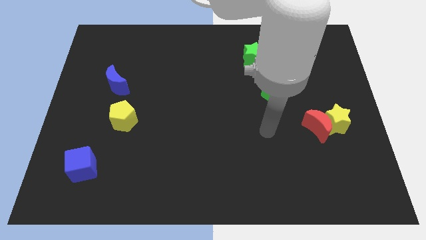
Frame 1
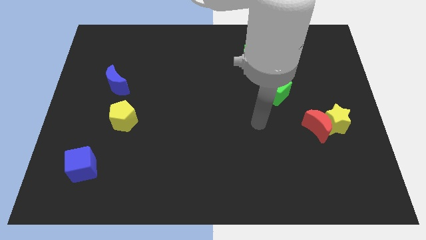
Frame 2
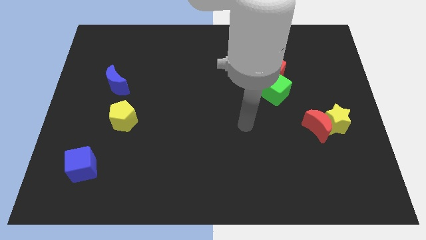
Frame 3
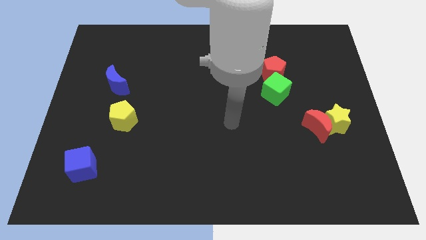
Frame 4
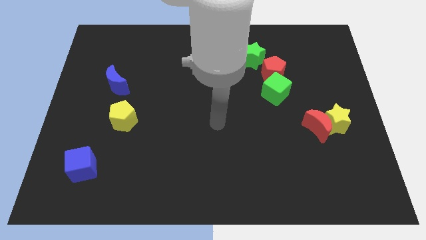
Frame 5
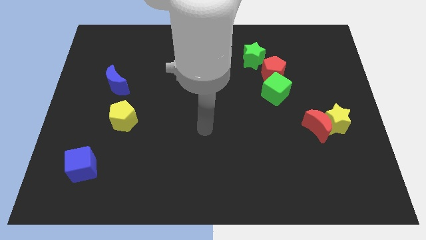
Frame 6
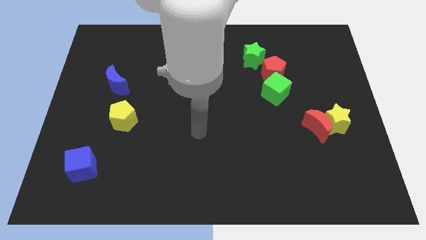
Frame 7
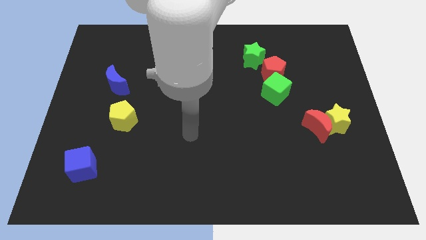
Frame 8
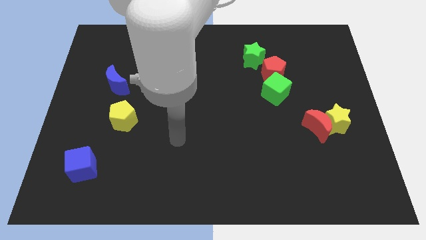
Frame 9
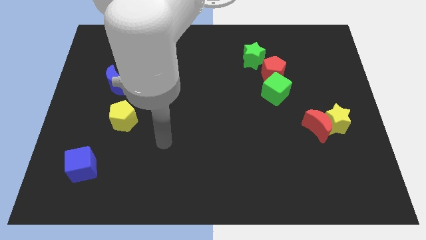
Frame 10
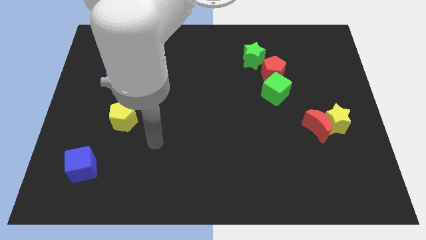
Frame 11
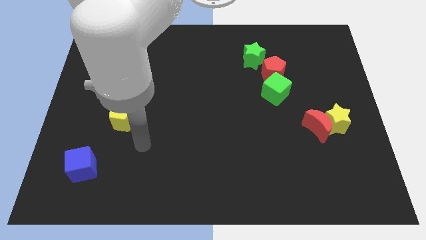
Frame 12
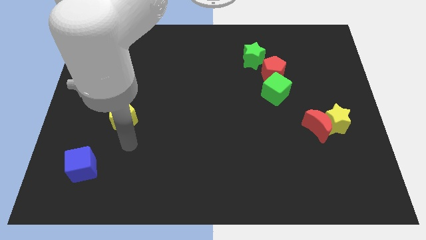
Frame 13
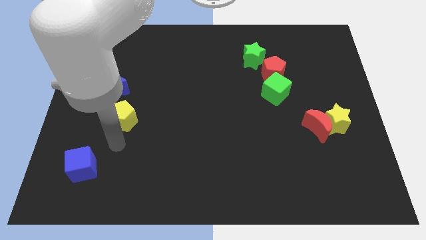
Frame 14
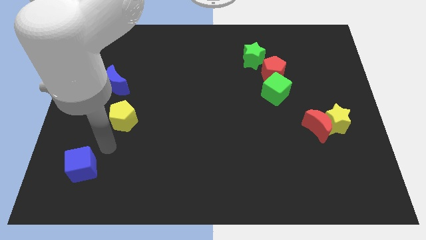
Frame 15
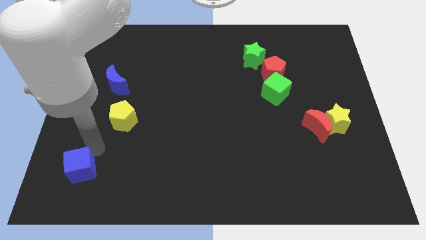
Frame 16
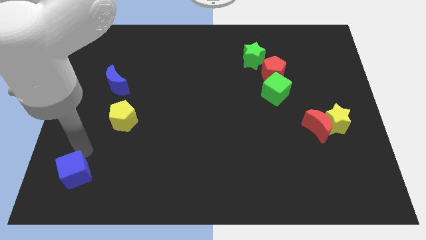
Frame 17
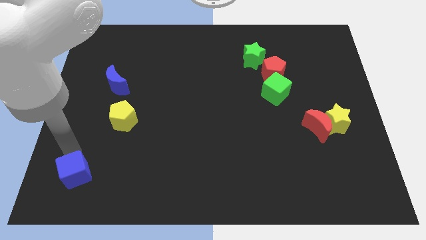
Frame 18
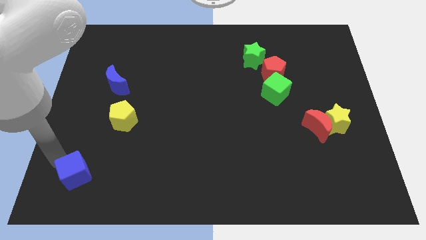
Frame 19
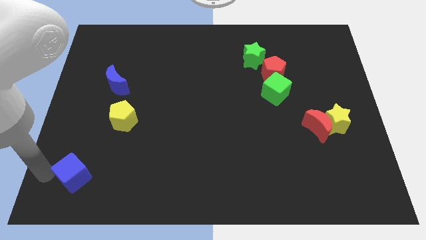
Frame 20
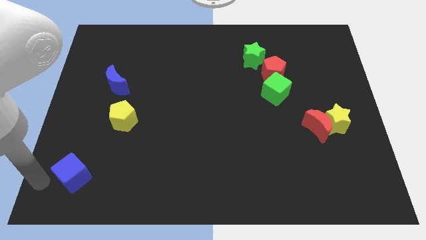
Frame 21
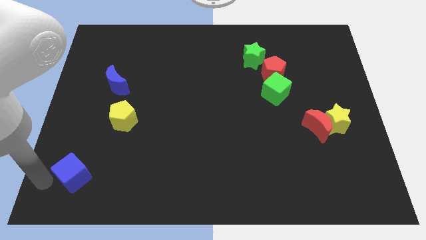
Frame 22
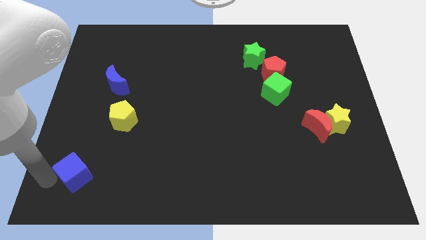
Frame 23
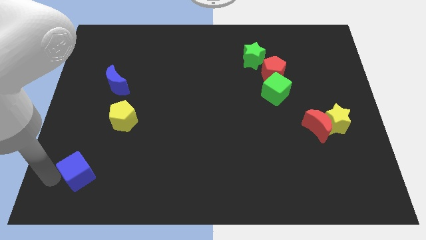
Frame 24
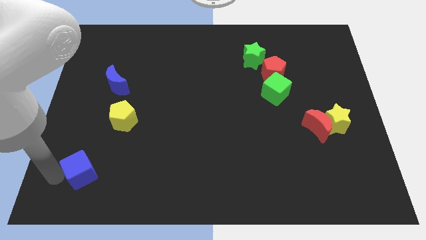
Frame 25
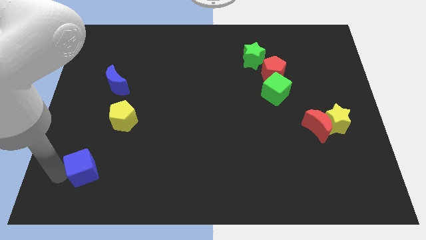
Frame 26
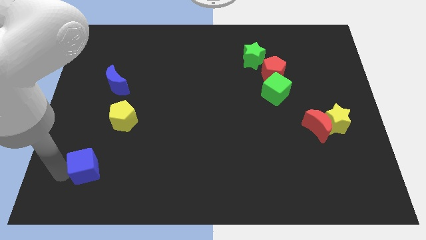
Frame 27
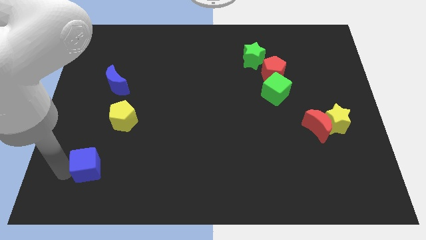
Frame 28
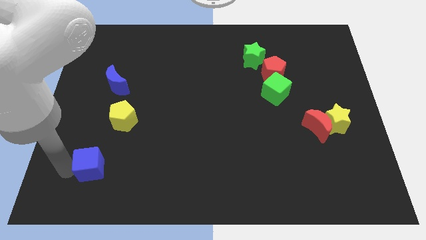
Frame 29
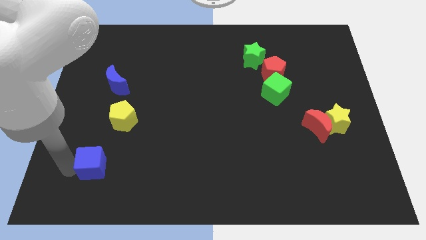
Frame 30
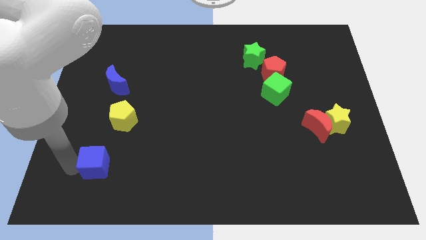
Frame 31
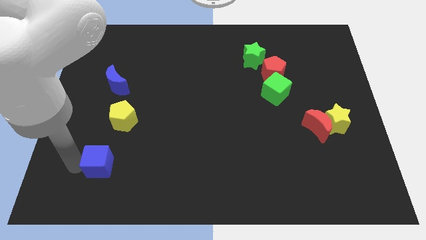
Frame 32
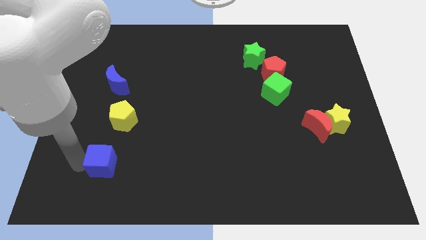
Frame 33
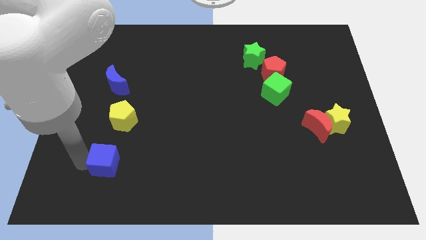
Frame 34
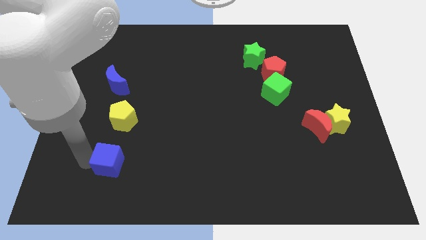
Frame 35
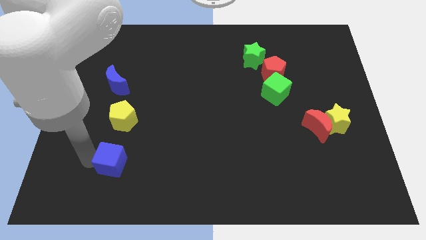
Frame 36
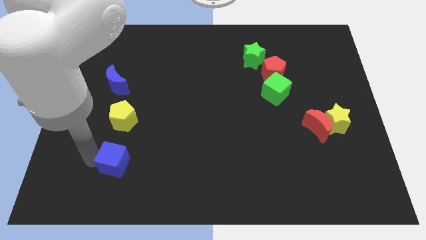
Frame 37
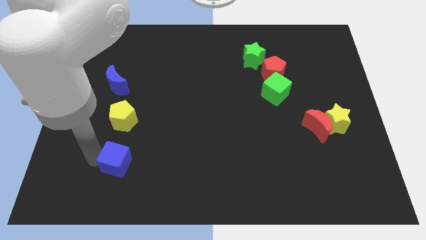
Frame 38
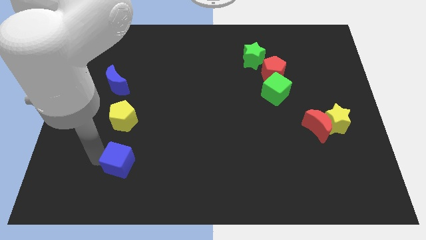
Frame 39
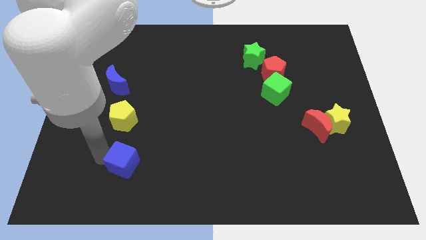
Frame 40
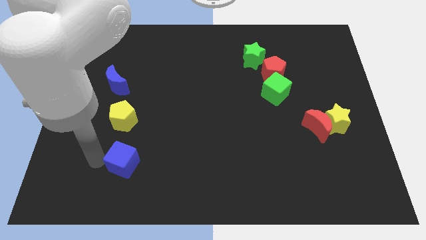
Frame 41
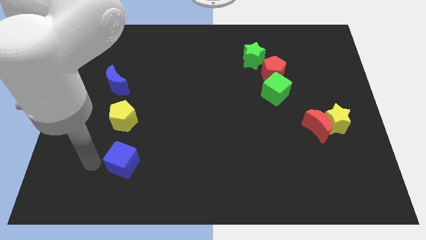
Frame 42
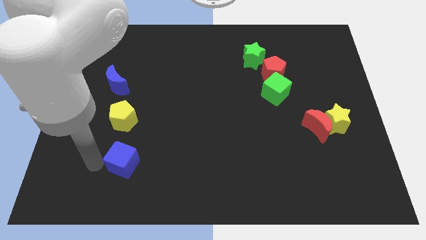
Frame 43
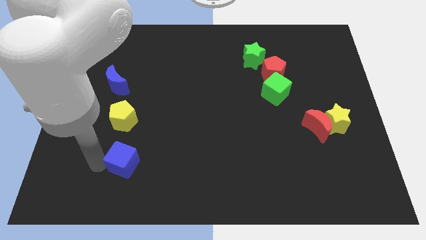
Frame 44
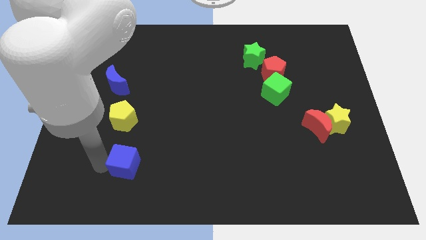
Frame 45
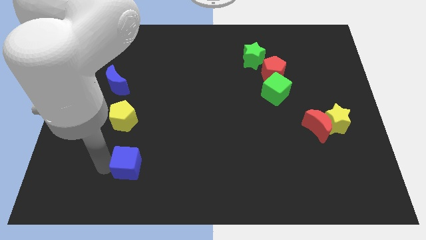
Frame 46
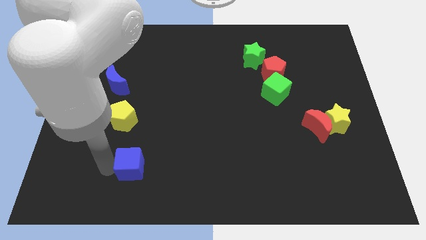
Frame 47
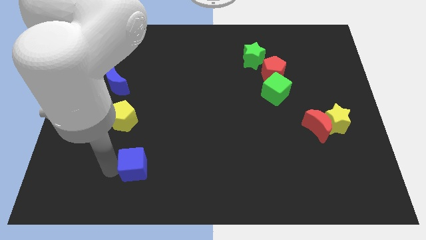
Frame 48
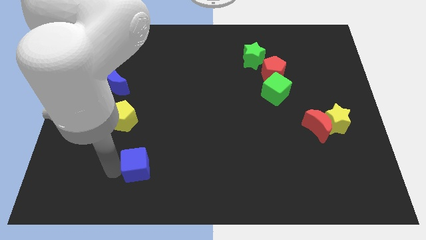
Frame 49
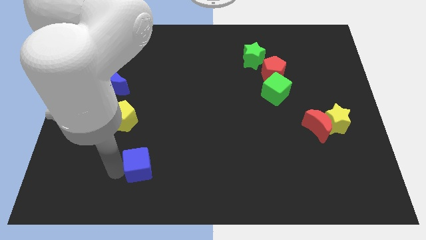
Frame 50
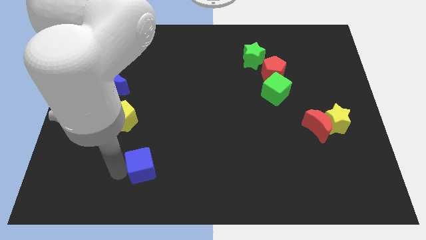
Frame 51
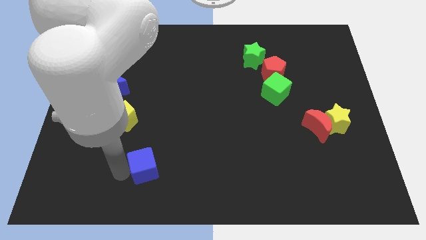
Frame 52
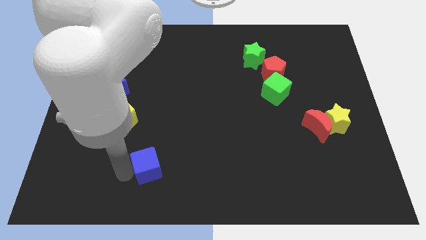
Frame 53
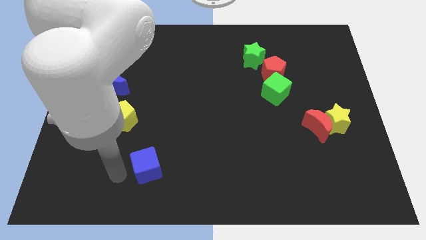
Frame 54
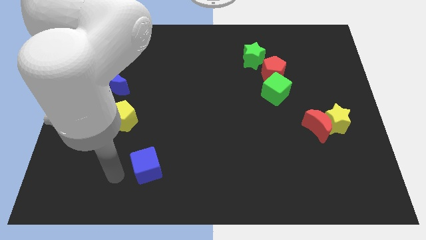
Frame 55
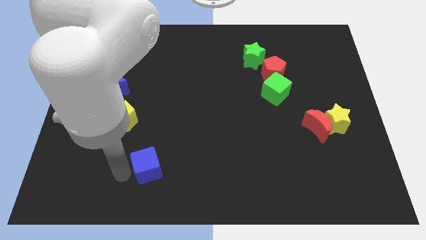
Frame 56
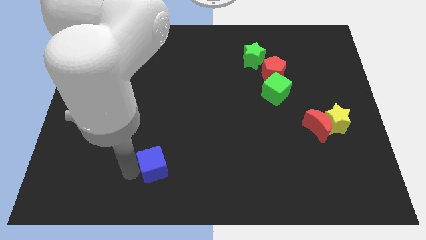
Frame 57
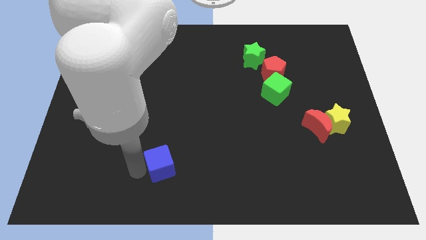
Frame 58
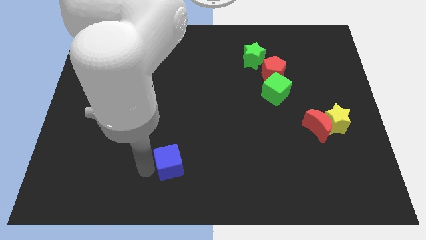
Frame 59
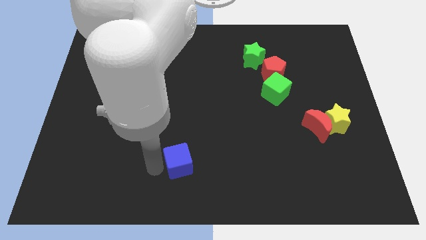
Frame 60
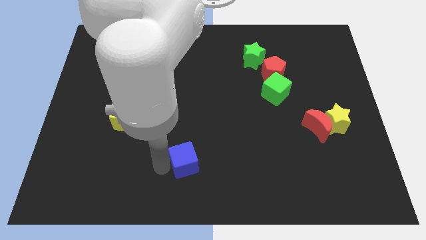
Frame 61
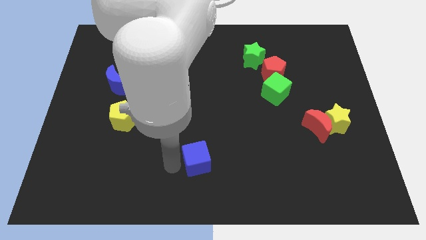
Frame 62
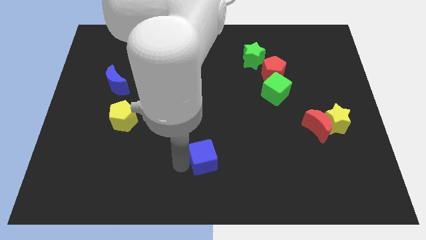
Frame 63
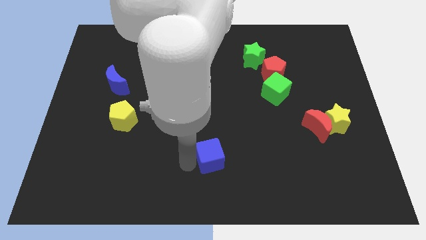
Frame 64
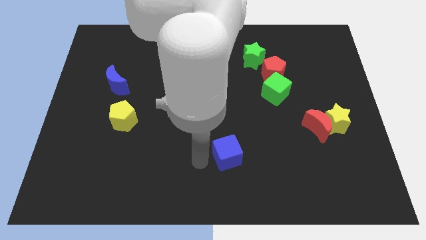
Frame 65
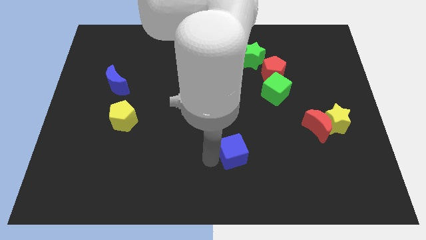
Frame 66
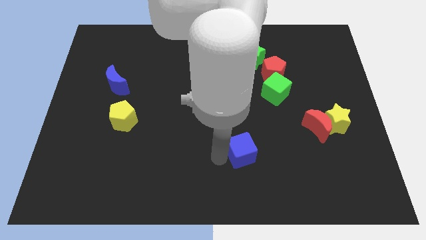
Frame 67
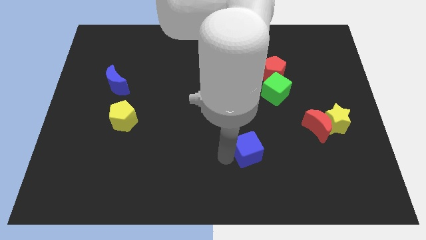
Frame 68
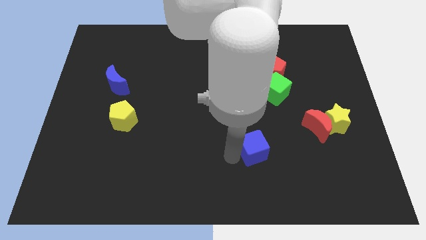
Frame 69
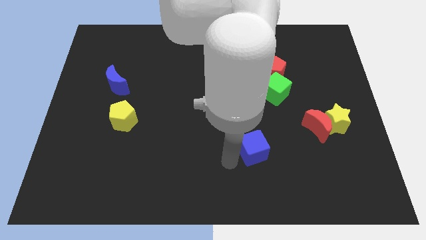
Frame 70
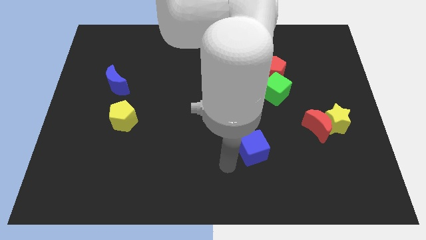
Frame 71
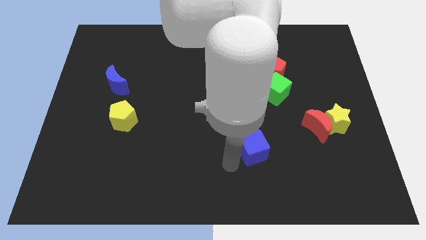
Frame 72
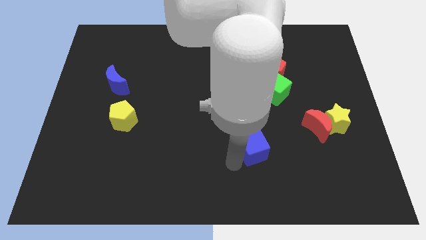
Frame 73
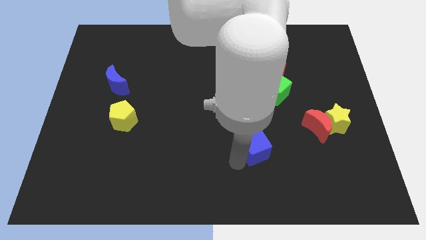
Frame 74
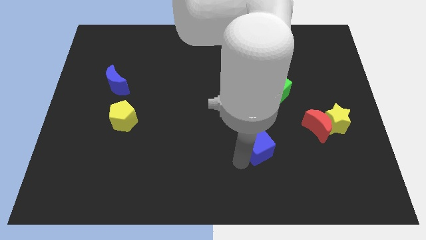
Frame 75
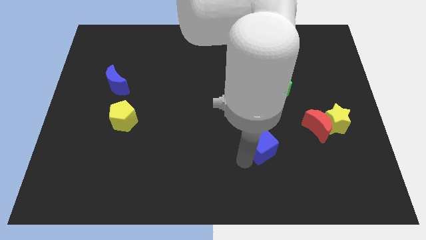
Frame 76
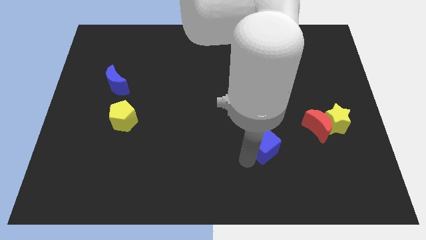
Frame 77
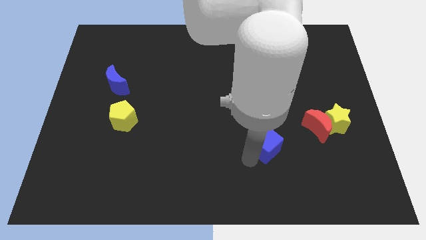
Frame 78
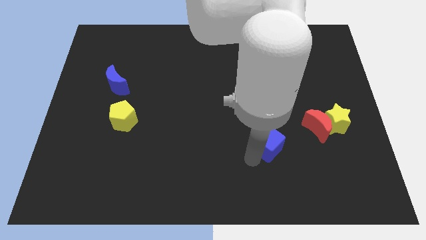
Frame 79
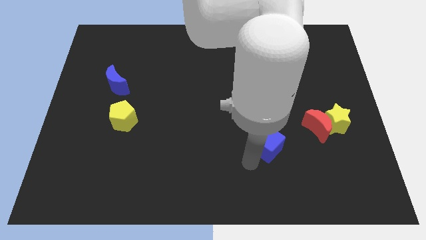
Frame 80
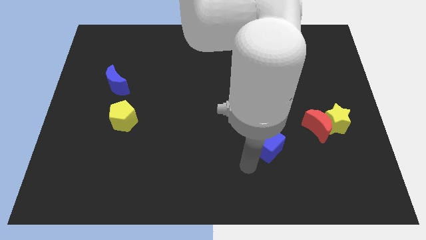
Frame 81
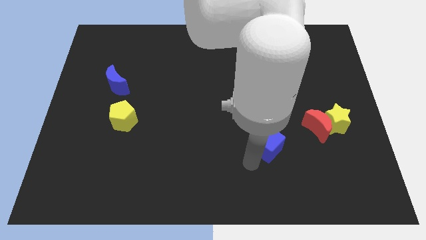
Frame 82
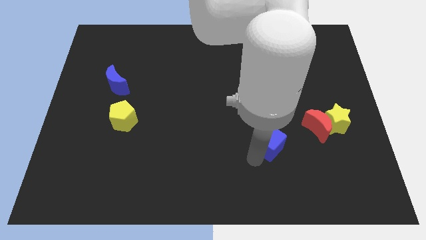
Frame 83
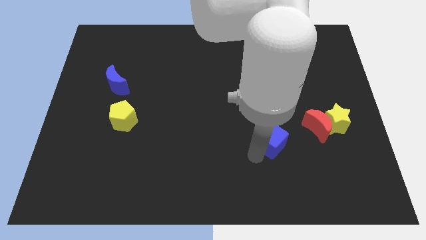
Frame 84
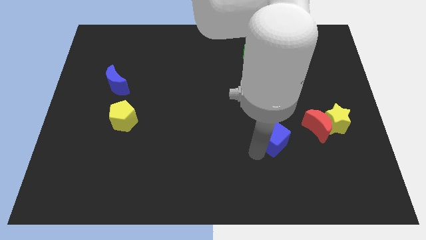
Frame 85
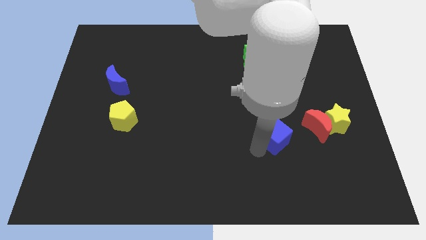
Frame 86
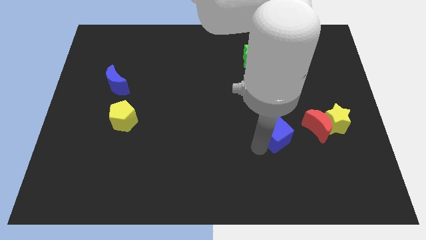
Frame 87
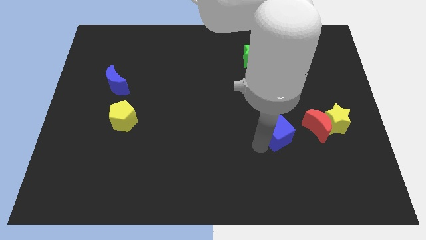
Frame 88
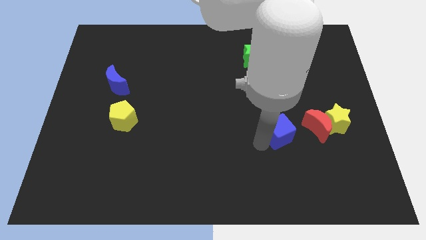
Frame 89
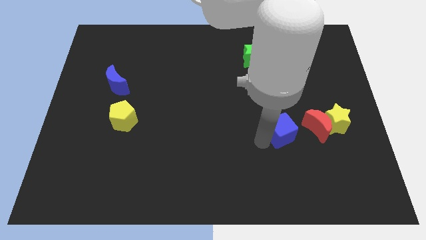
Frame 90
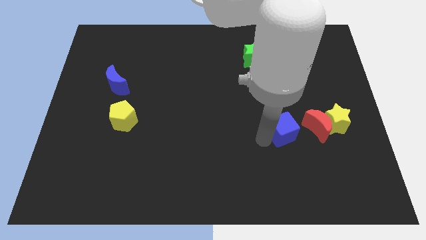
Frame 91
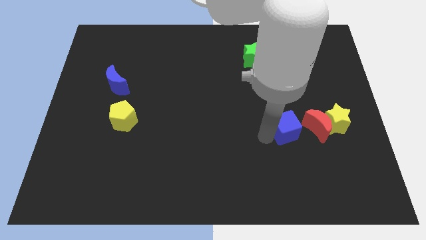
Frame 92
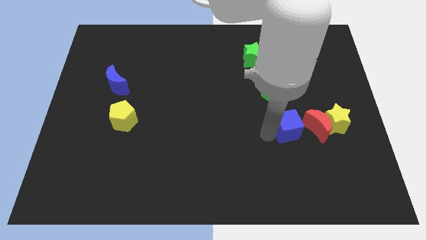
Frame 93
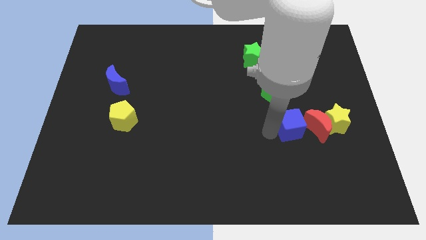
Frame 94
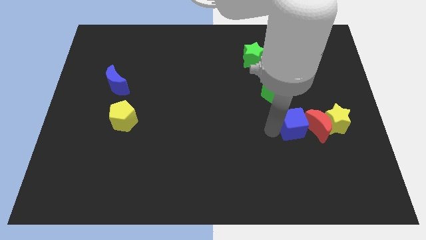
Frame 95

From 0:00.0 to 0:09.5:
put the blue cube close to the red moon
